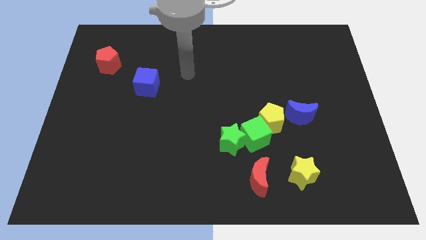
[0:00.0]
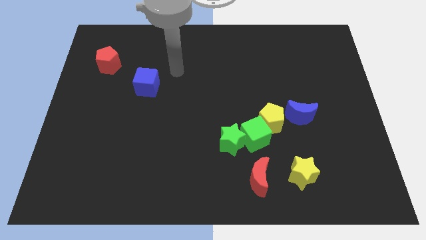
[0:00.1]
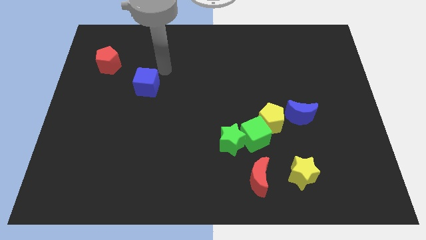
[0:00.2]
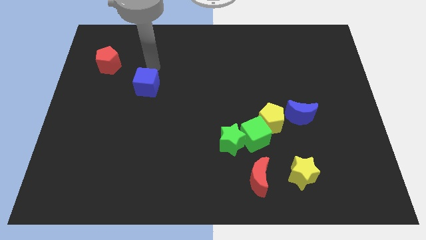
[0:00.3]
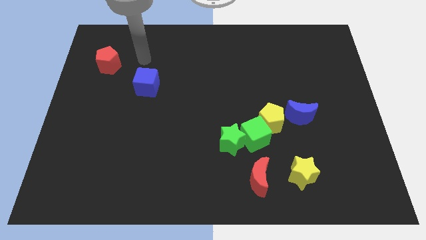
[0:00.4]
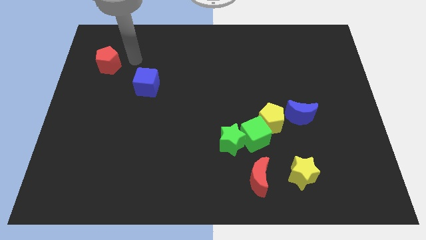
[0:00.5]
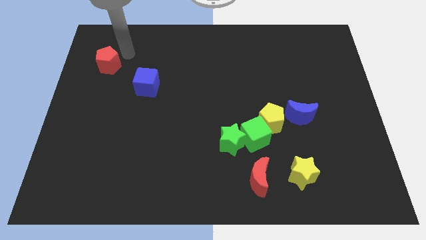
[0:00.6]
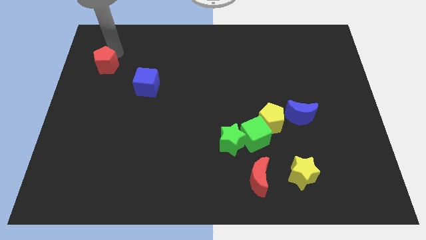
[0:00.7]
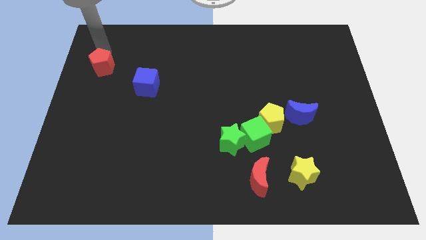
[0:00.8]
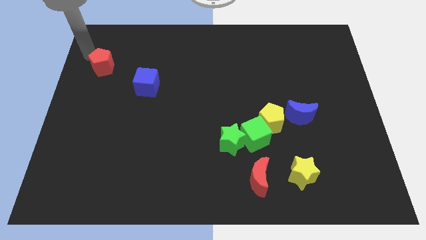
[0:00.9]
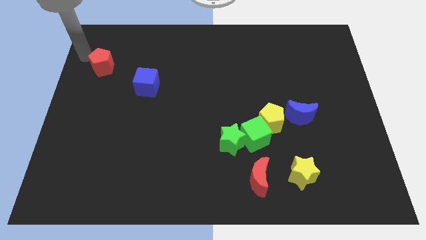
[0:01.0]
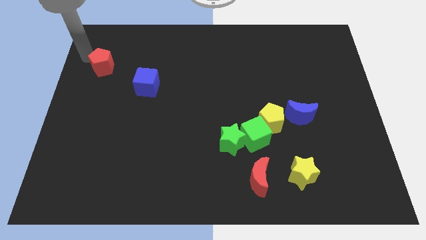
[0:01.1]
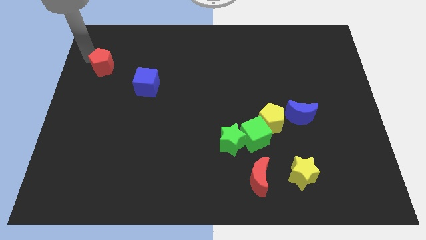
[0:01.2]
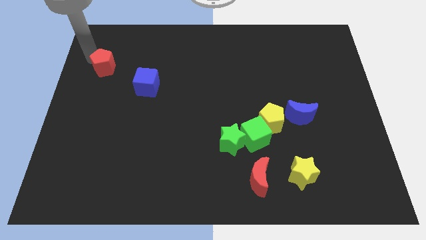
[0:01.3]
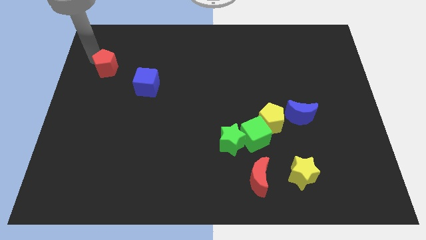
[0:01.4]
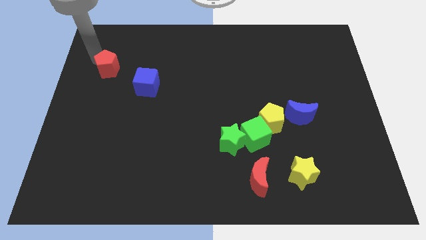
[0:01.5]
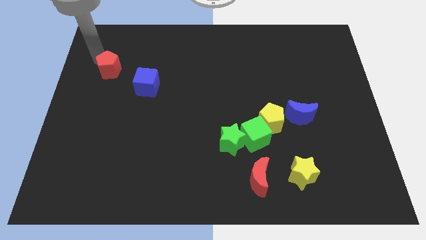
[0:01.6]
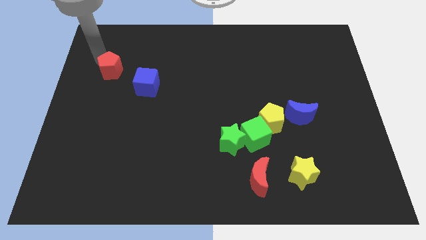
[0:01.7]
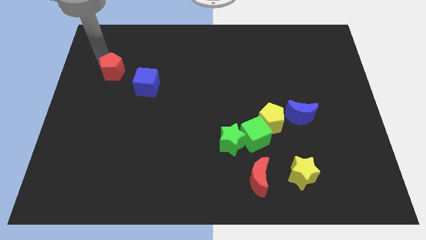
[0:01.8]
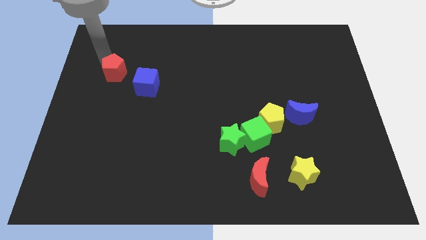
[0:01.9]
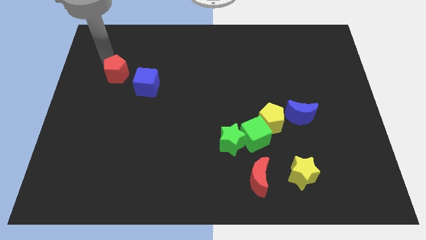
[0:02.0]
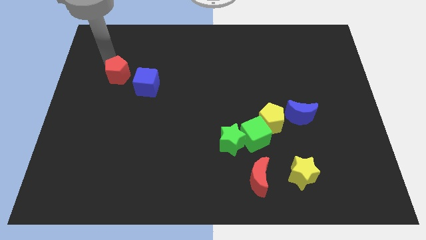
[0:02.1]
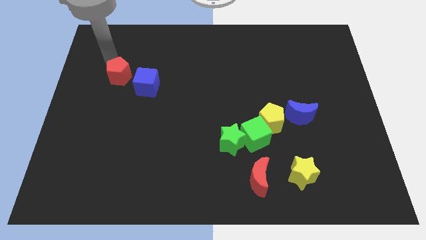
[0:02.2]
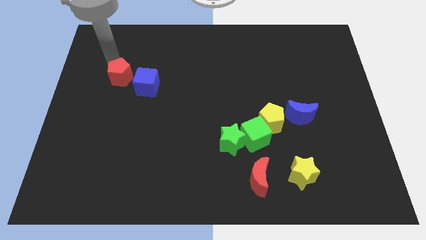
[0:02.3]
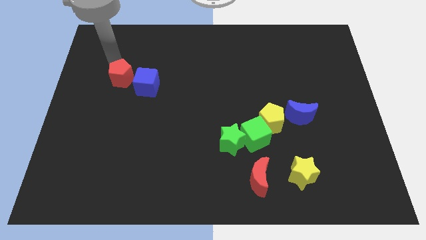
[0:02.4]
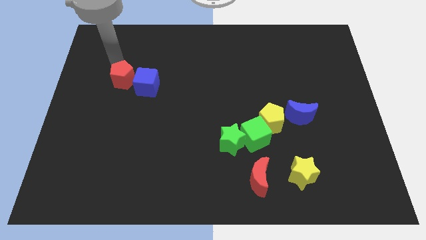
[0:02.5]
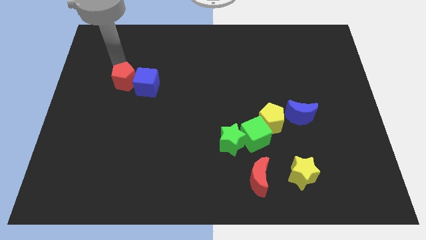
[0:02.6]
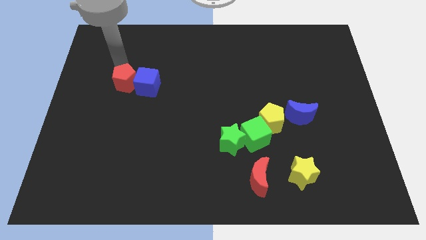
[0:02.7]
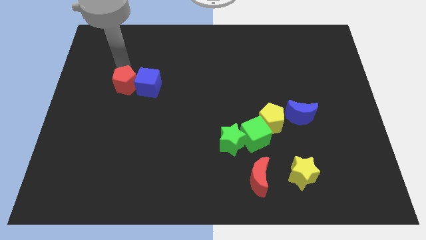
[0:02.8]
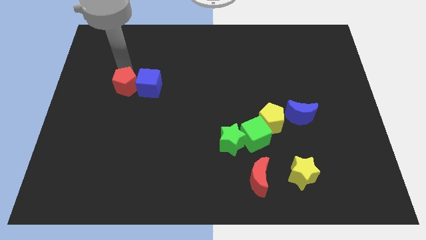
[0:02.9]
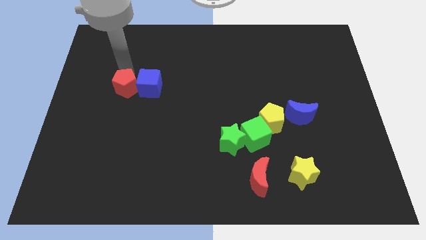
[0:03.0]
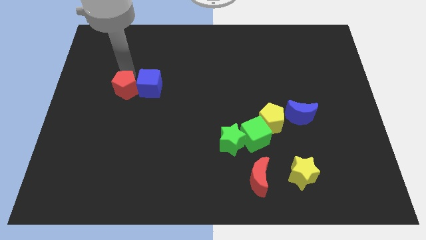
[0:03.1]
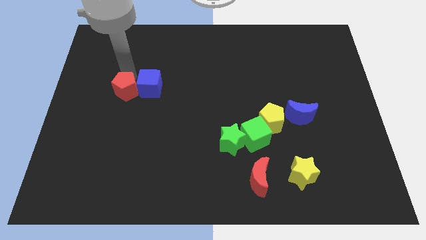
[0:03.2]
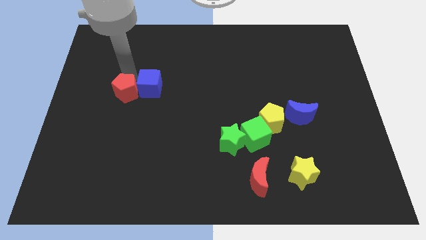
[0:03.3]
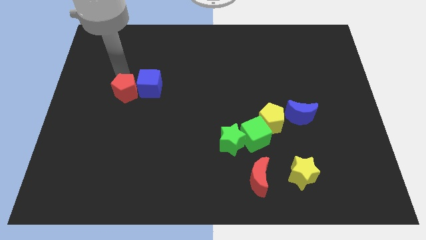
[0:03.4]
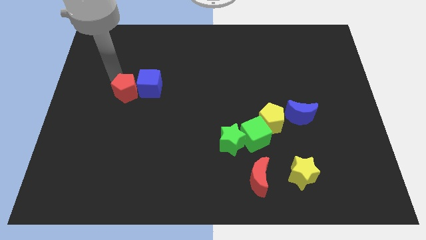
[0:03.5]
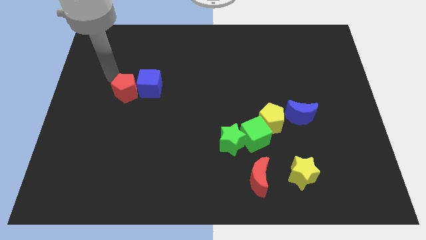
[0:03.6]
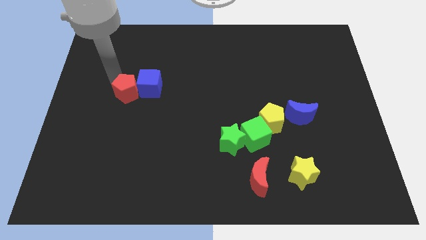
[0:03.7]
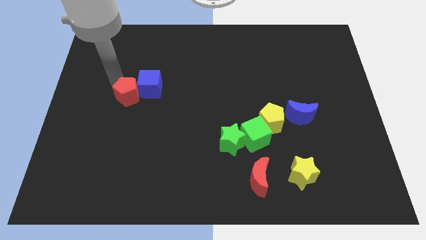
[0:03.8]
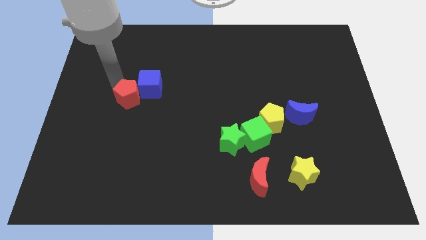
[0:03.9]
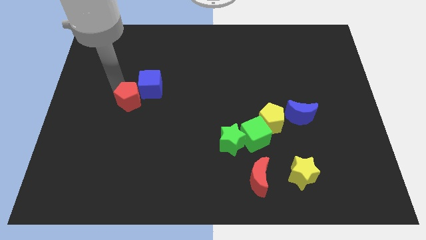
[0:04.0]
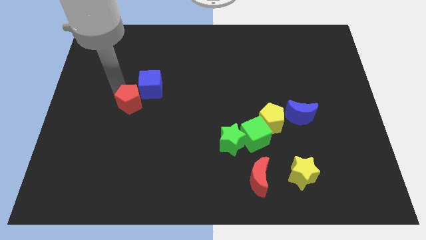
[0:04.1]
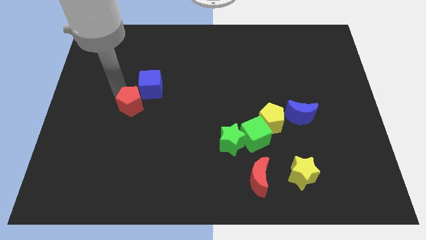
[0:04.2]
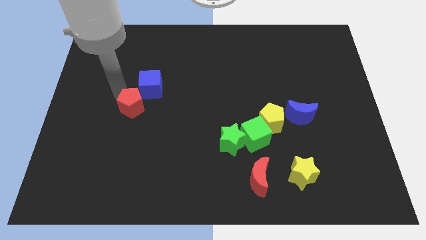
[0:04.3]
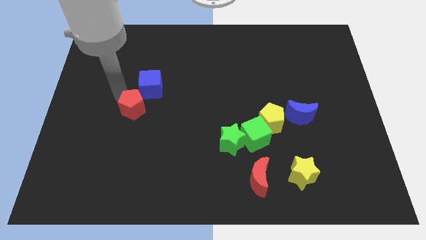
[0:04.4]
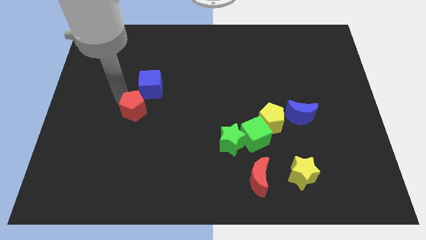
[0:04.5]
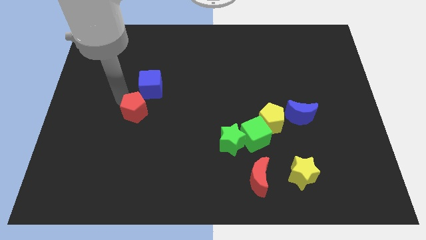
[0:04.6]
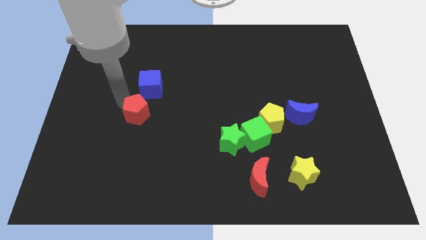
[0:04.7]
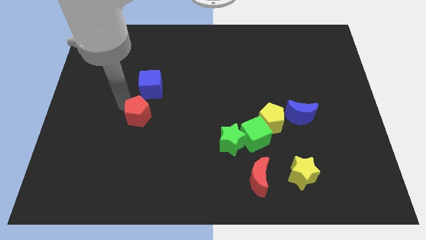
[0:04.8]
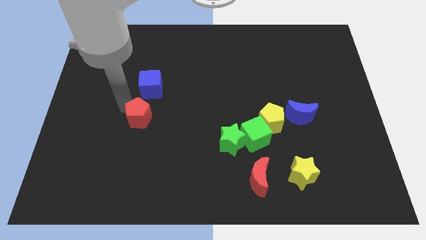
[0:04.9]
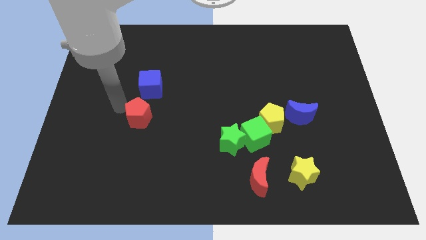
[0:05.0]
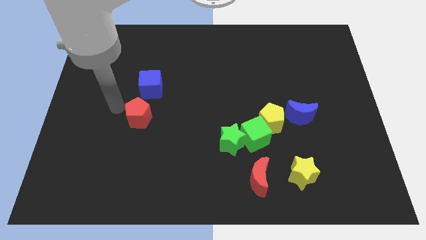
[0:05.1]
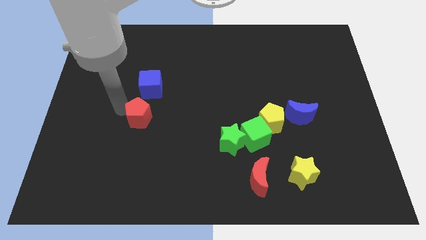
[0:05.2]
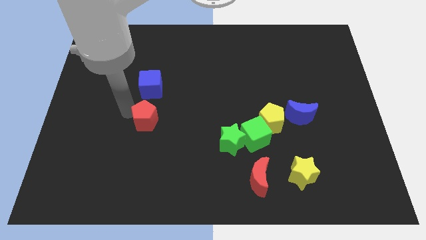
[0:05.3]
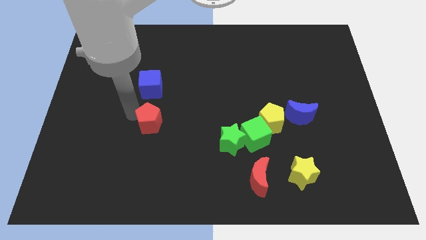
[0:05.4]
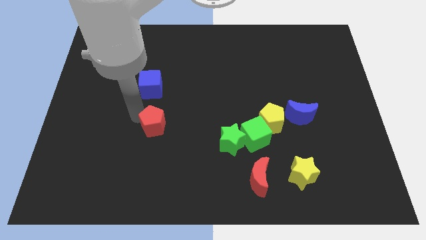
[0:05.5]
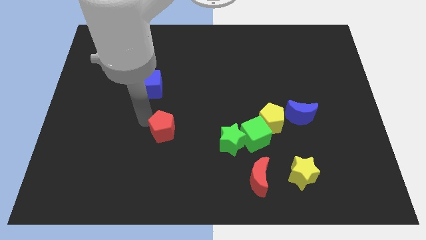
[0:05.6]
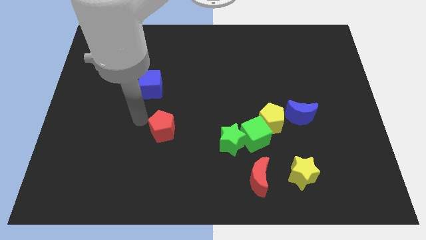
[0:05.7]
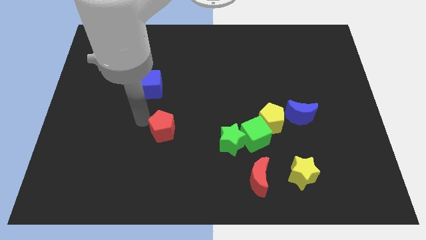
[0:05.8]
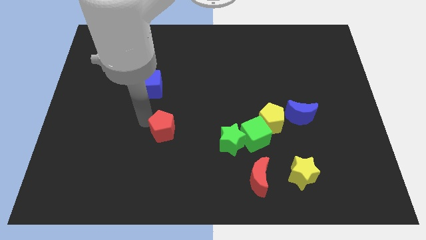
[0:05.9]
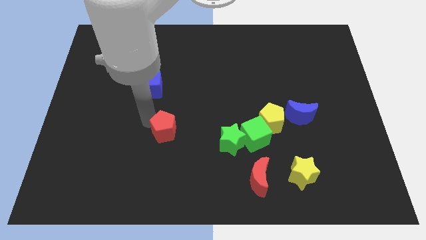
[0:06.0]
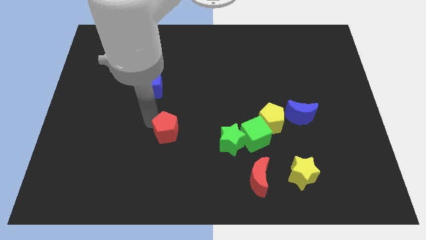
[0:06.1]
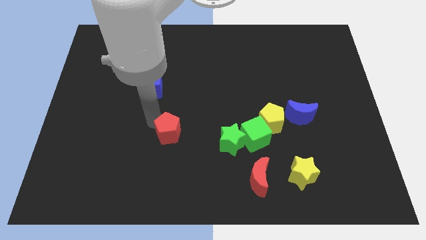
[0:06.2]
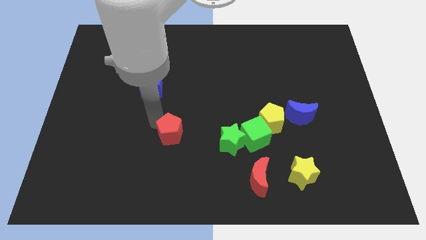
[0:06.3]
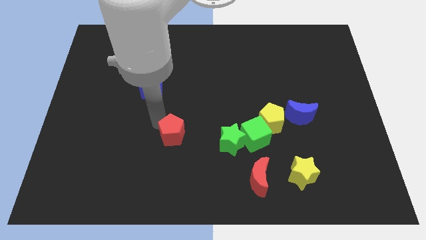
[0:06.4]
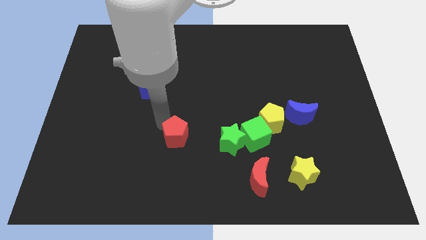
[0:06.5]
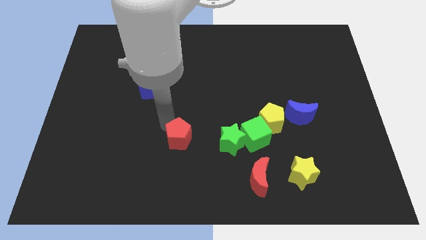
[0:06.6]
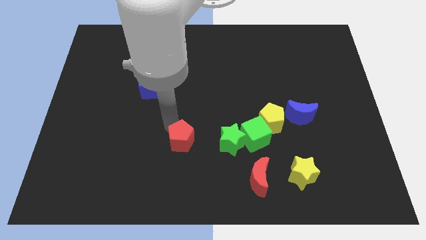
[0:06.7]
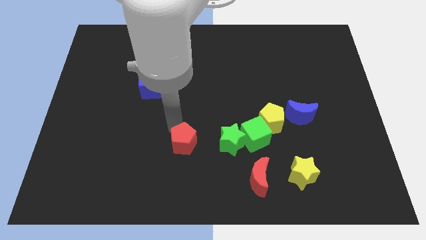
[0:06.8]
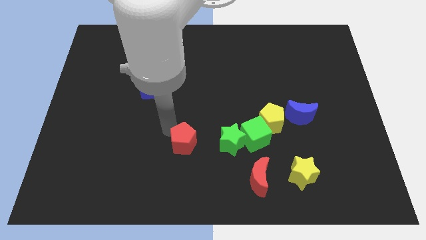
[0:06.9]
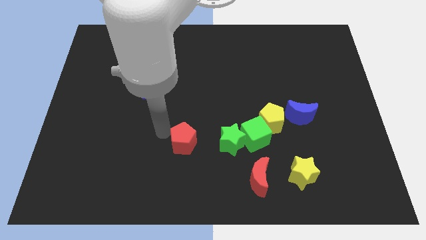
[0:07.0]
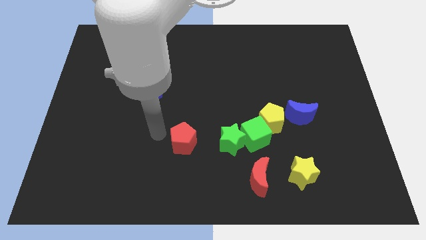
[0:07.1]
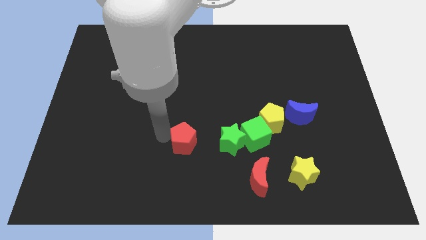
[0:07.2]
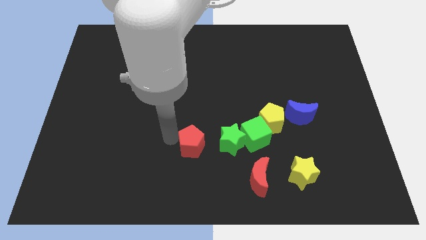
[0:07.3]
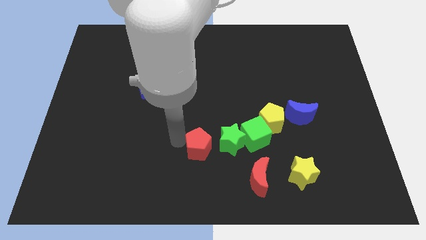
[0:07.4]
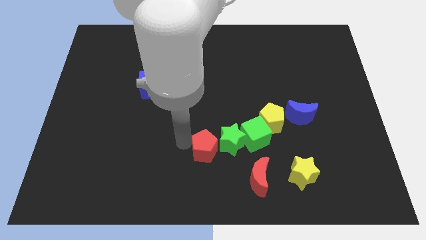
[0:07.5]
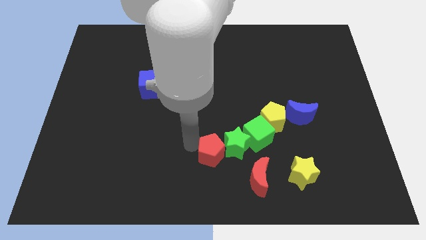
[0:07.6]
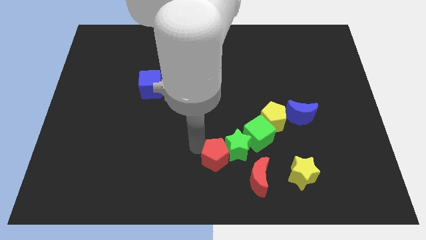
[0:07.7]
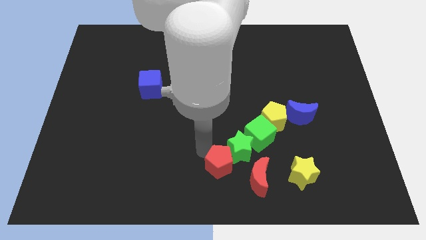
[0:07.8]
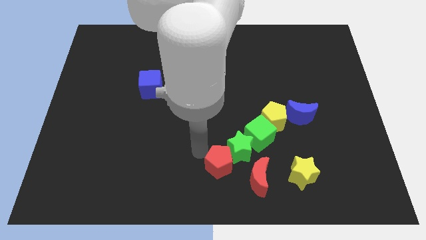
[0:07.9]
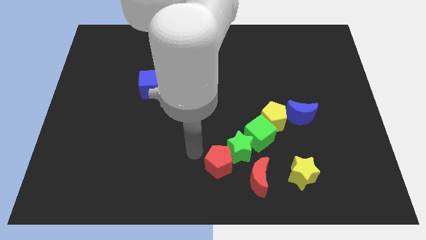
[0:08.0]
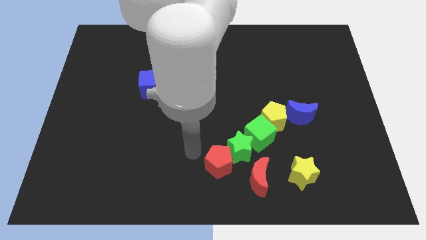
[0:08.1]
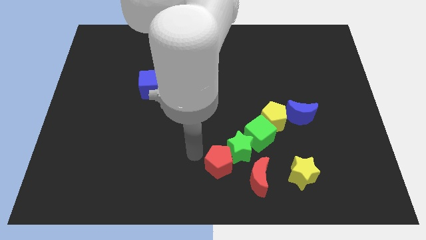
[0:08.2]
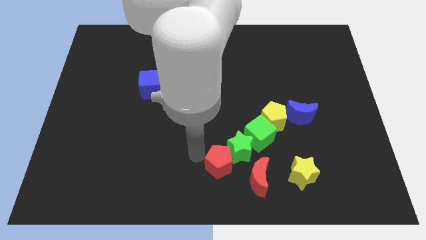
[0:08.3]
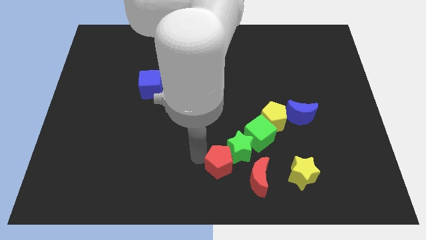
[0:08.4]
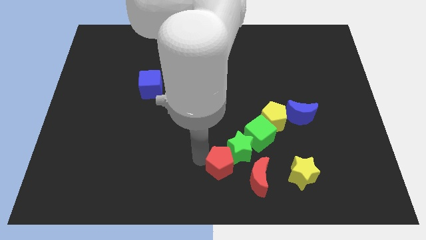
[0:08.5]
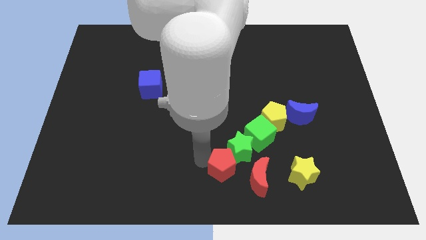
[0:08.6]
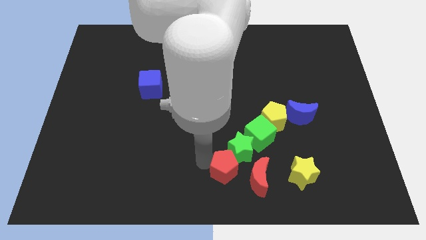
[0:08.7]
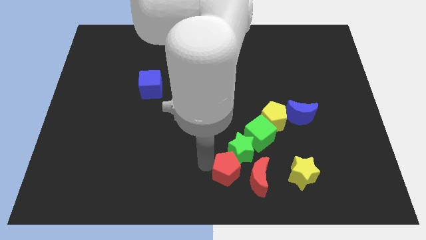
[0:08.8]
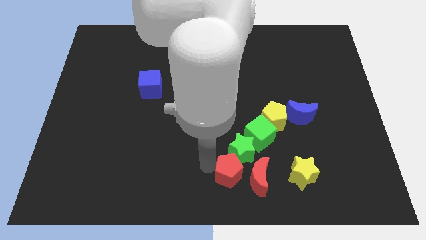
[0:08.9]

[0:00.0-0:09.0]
put the red pentagon to the red moon
